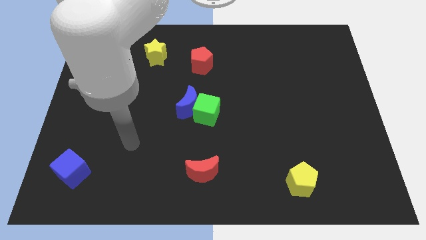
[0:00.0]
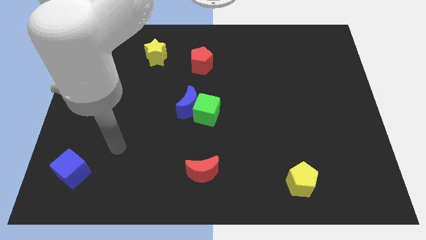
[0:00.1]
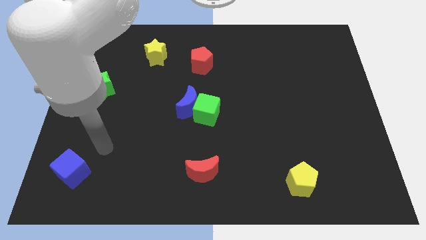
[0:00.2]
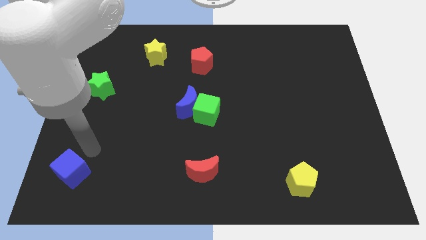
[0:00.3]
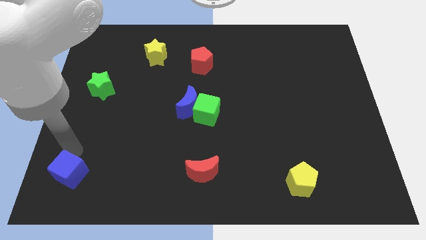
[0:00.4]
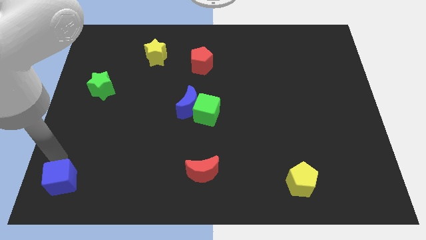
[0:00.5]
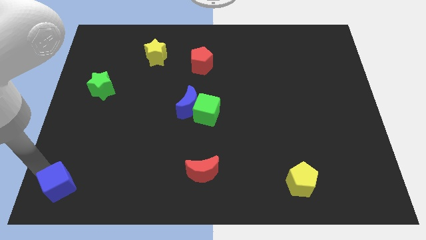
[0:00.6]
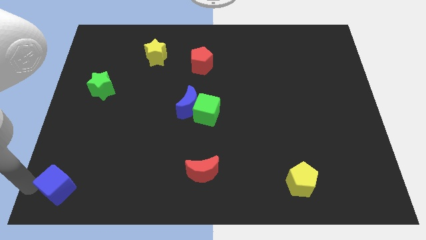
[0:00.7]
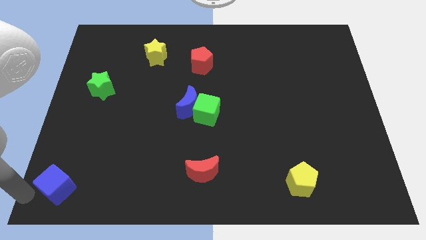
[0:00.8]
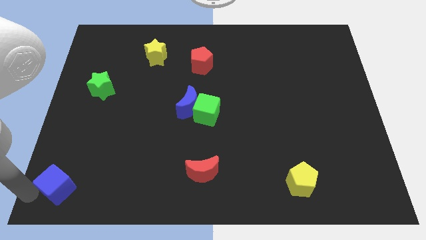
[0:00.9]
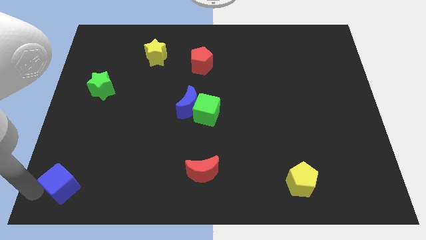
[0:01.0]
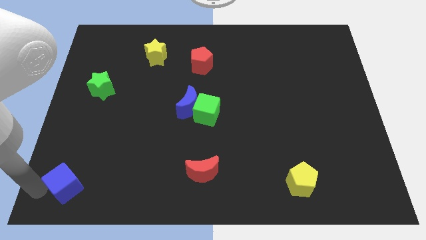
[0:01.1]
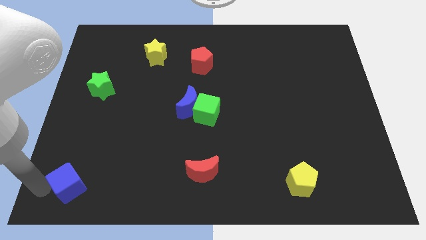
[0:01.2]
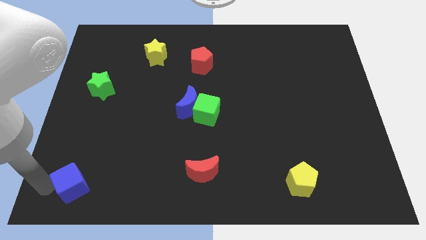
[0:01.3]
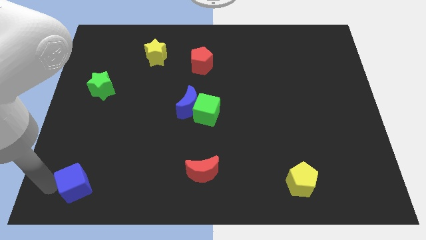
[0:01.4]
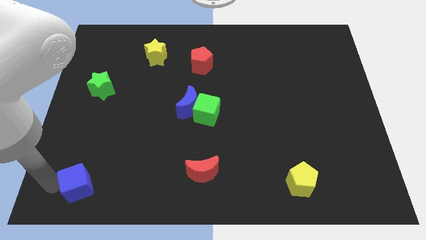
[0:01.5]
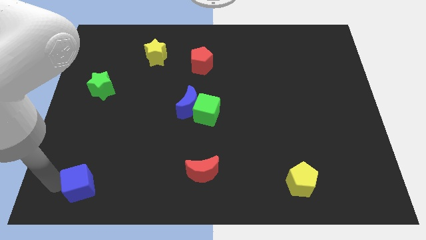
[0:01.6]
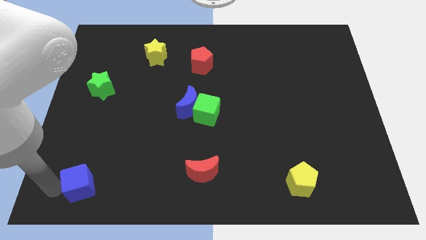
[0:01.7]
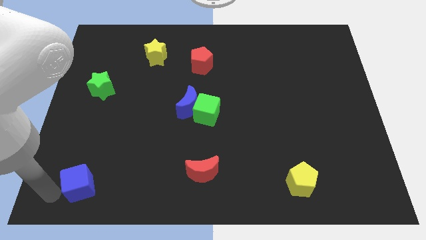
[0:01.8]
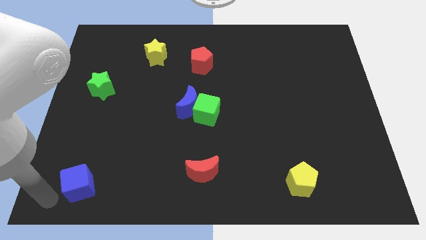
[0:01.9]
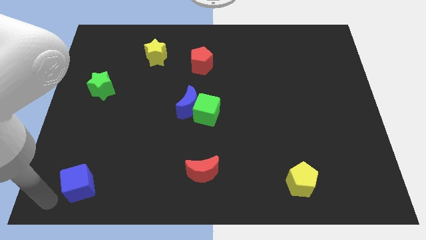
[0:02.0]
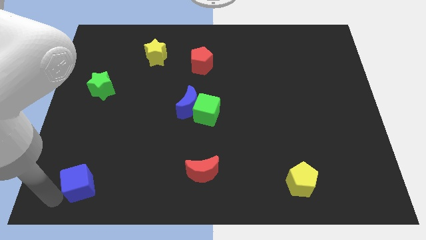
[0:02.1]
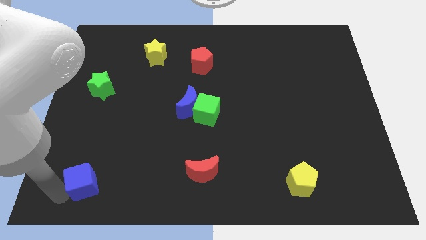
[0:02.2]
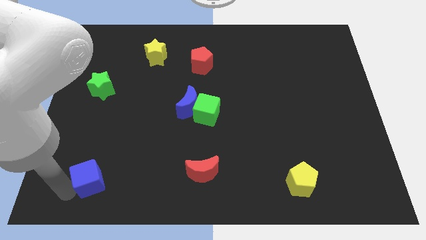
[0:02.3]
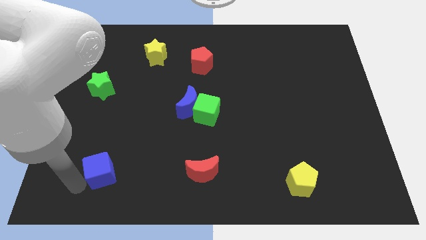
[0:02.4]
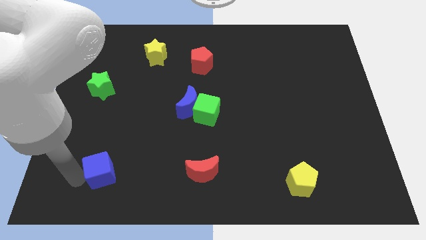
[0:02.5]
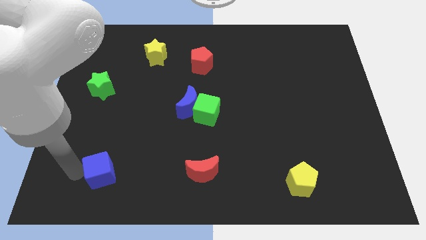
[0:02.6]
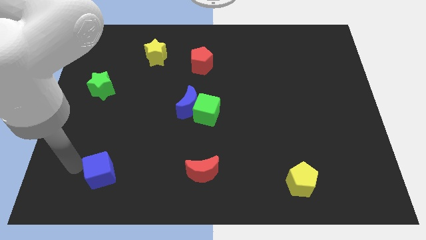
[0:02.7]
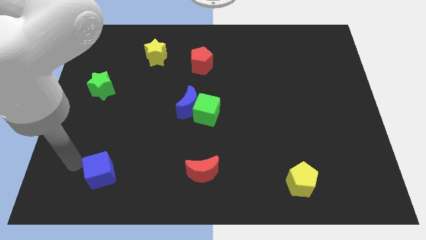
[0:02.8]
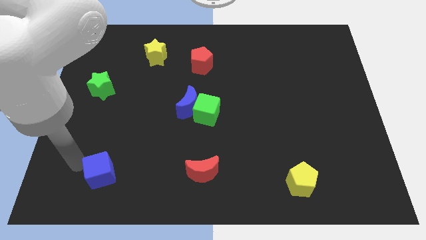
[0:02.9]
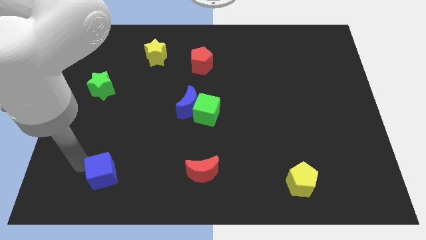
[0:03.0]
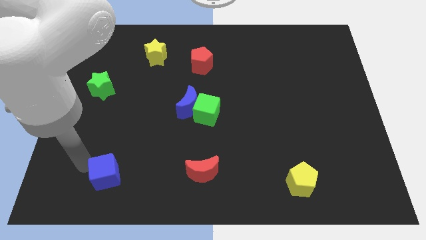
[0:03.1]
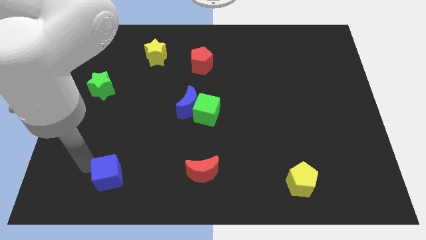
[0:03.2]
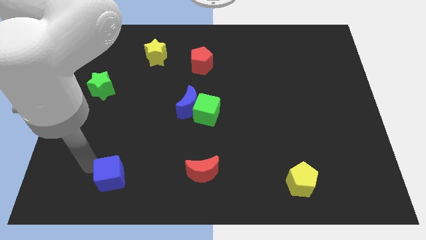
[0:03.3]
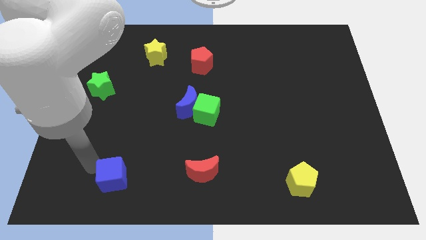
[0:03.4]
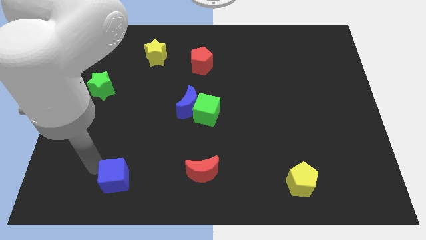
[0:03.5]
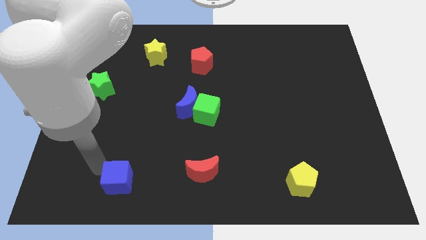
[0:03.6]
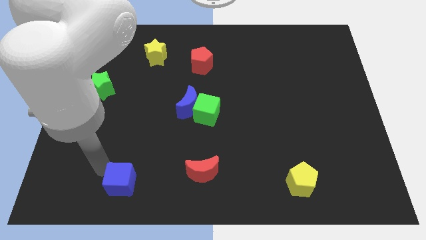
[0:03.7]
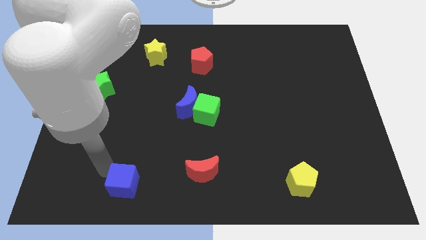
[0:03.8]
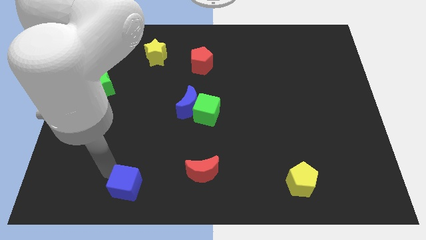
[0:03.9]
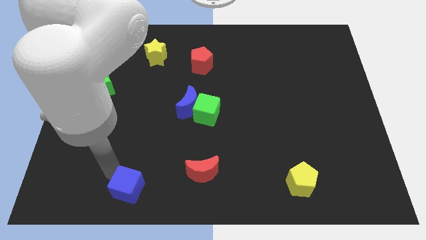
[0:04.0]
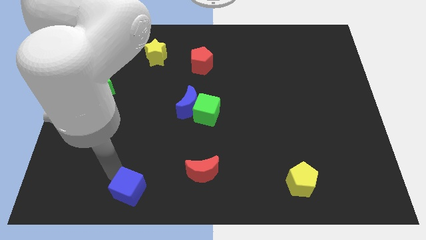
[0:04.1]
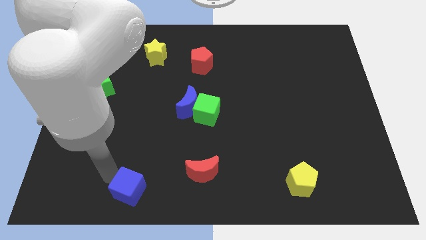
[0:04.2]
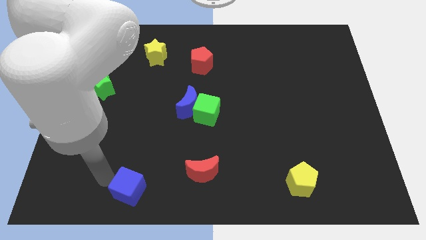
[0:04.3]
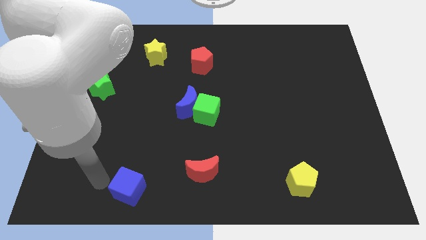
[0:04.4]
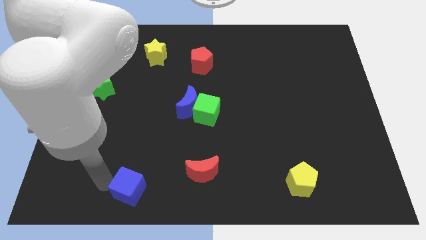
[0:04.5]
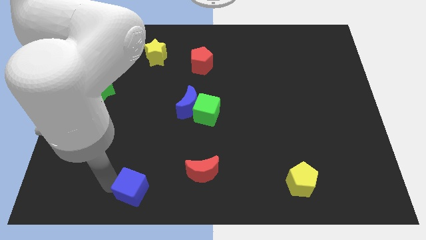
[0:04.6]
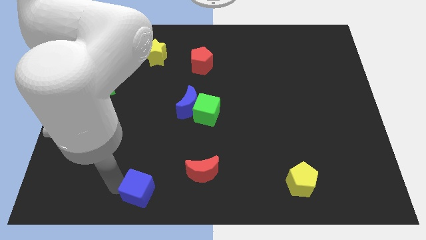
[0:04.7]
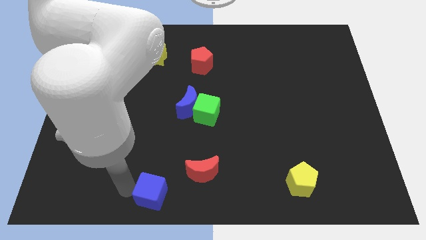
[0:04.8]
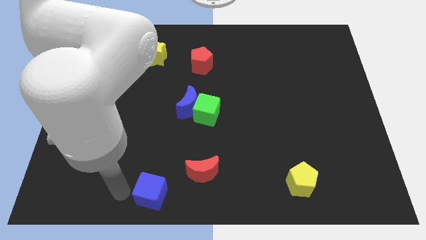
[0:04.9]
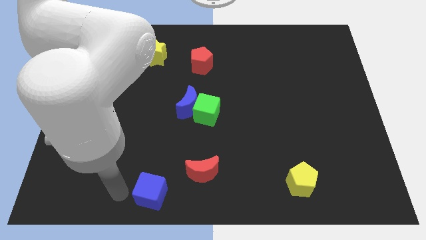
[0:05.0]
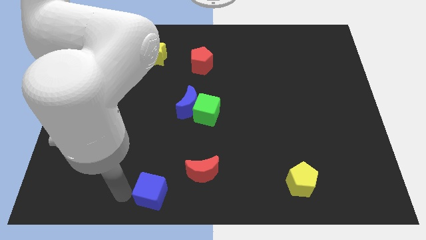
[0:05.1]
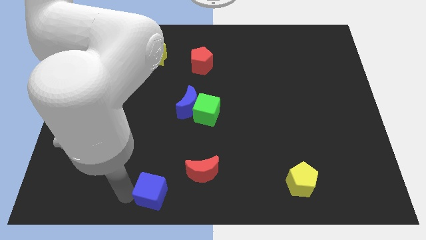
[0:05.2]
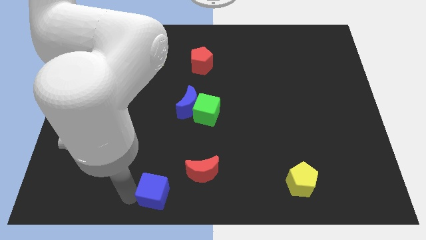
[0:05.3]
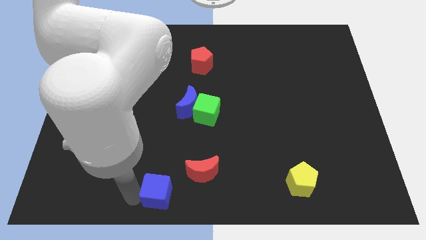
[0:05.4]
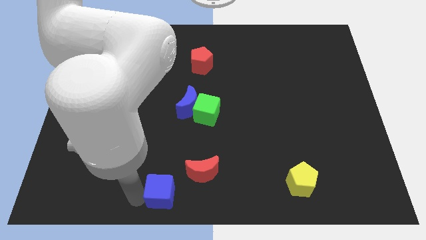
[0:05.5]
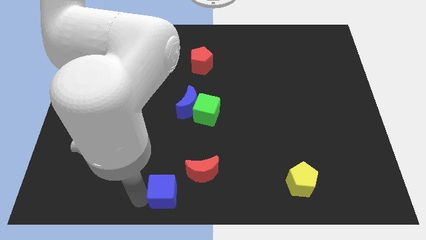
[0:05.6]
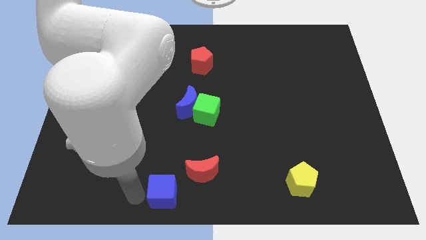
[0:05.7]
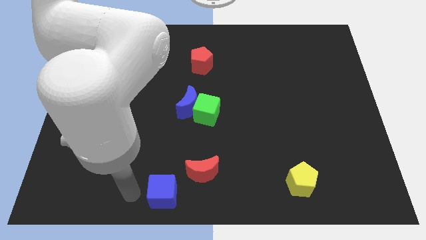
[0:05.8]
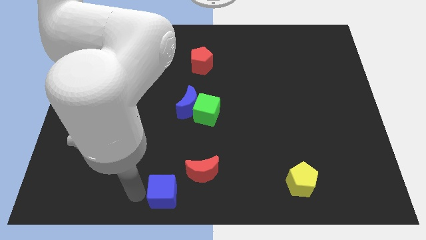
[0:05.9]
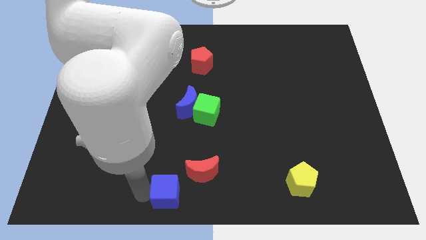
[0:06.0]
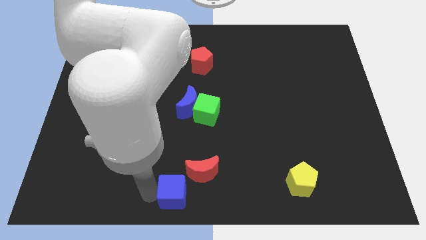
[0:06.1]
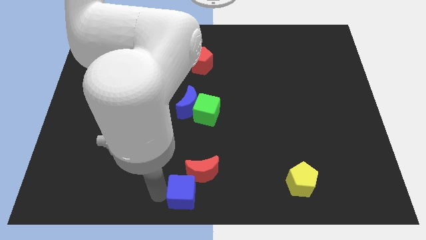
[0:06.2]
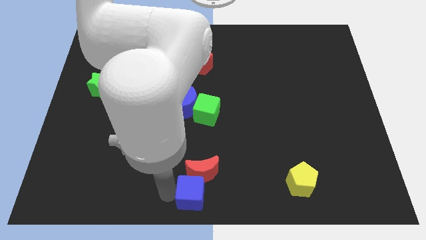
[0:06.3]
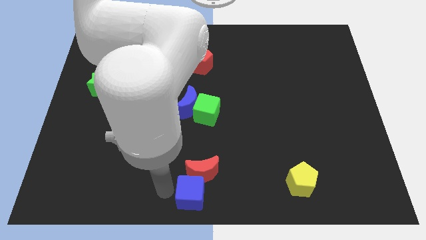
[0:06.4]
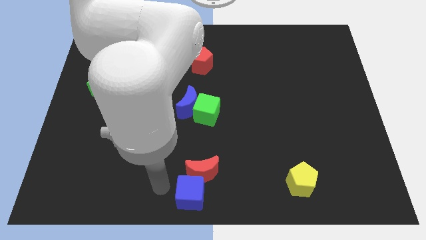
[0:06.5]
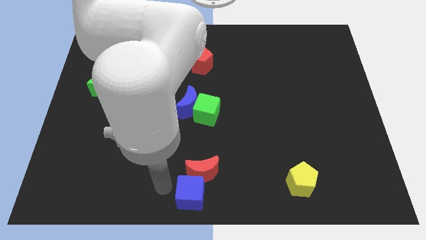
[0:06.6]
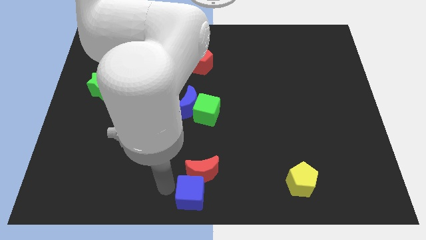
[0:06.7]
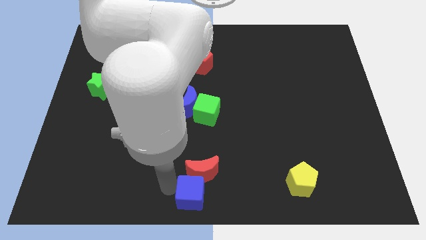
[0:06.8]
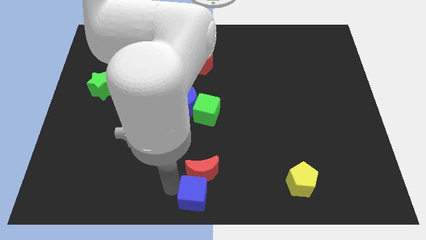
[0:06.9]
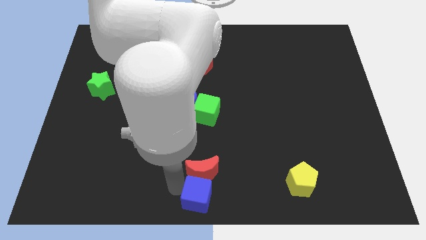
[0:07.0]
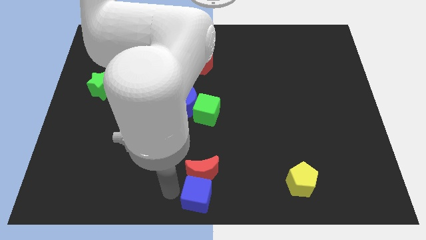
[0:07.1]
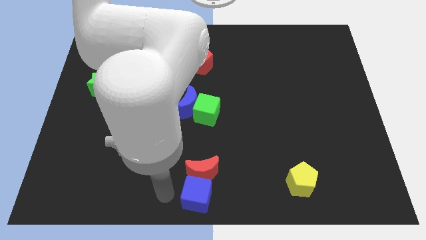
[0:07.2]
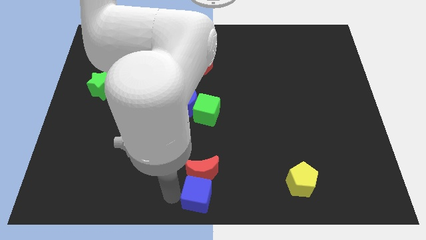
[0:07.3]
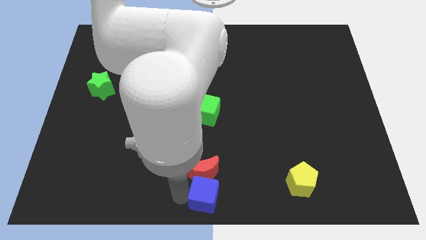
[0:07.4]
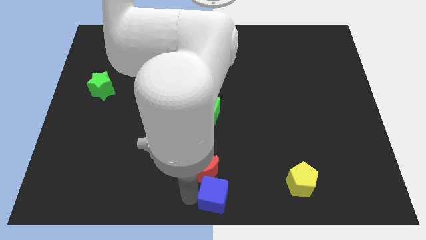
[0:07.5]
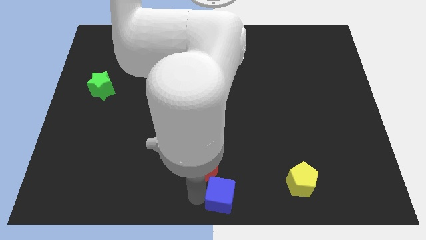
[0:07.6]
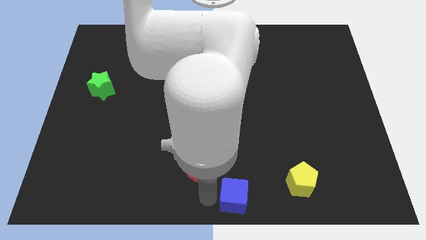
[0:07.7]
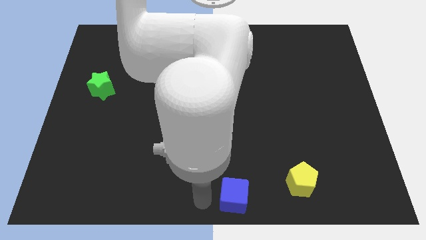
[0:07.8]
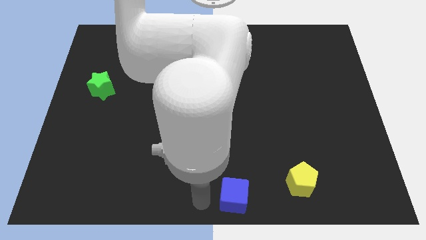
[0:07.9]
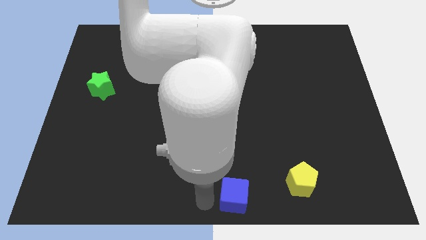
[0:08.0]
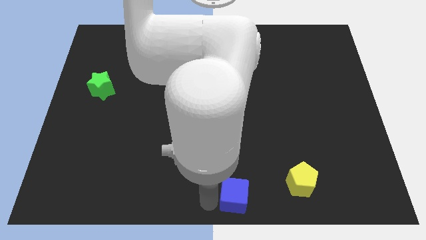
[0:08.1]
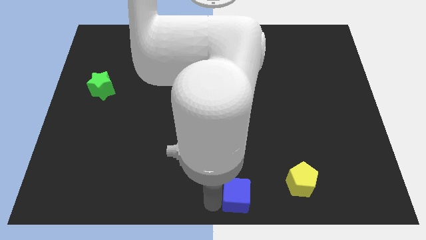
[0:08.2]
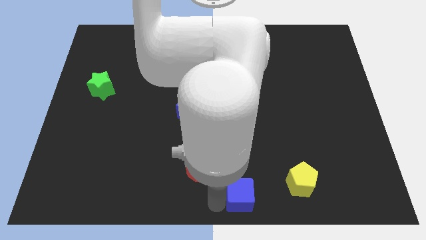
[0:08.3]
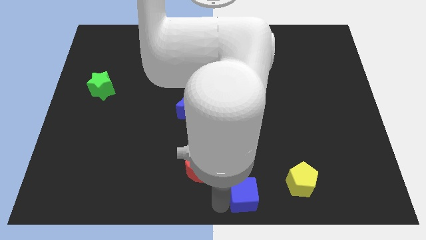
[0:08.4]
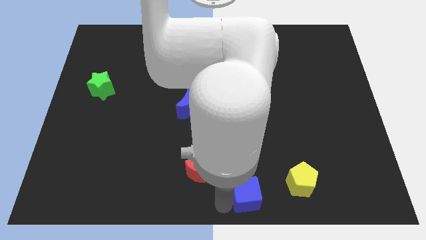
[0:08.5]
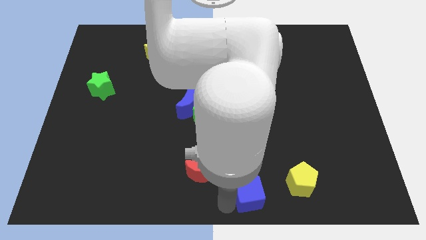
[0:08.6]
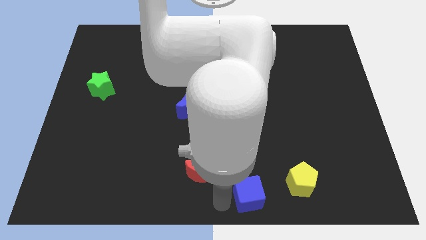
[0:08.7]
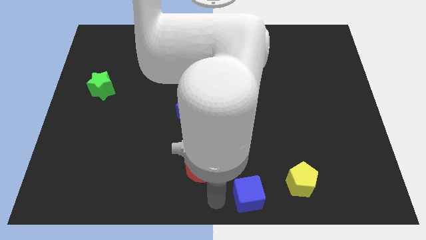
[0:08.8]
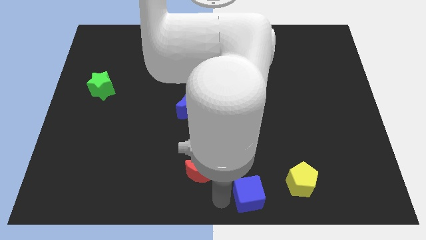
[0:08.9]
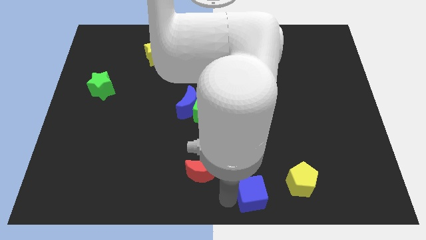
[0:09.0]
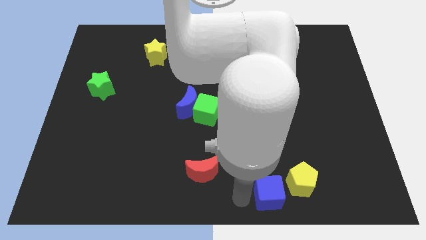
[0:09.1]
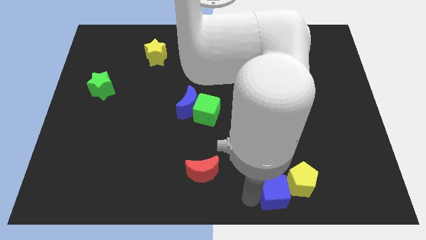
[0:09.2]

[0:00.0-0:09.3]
put the blue cube to the yellow pentagon
